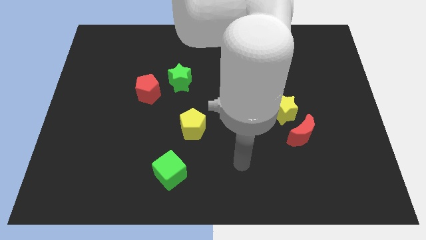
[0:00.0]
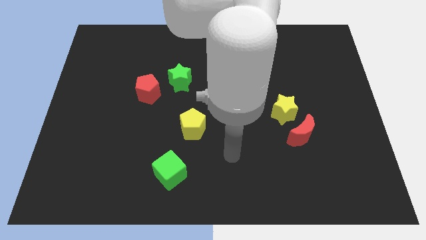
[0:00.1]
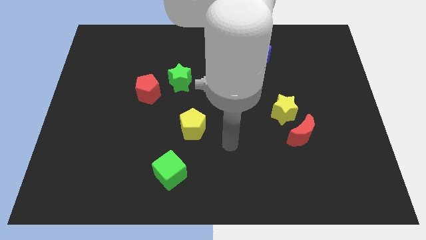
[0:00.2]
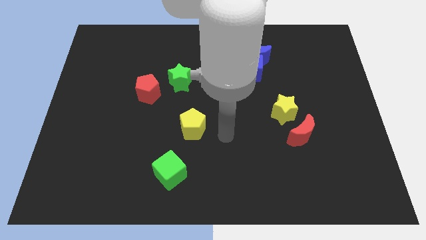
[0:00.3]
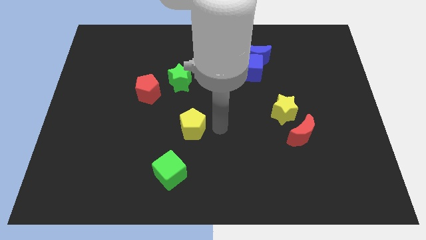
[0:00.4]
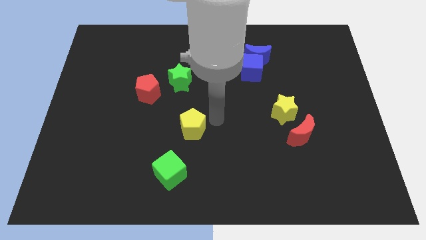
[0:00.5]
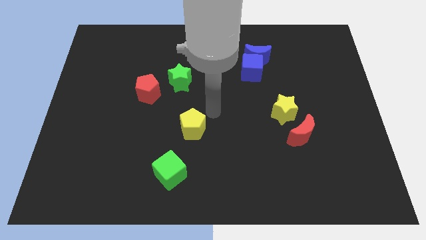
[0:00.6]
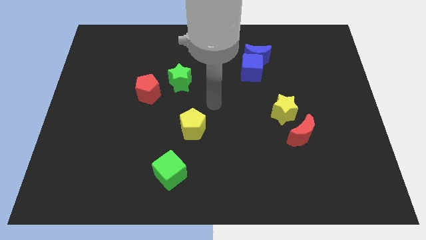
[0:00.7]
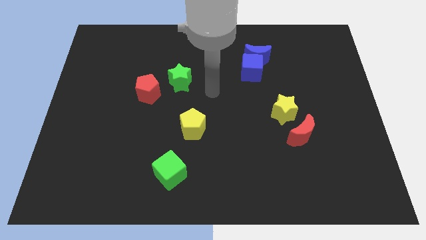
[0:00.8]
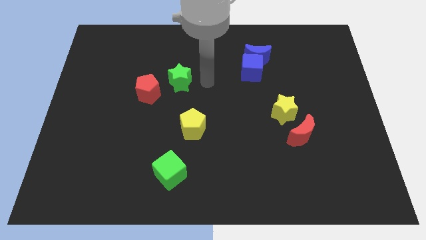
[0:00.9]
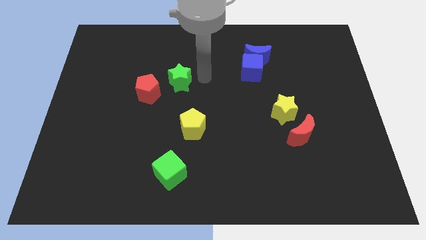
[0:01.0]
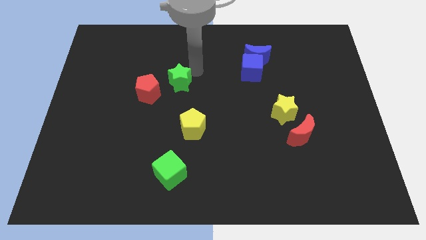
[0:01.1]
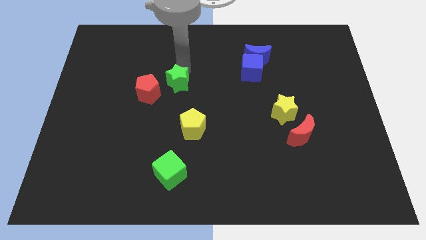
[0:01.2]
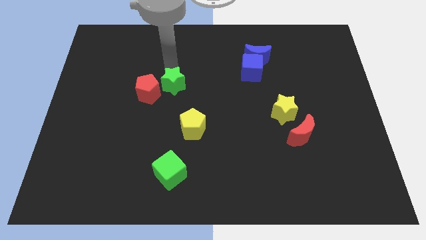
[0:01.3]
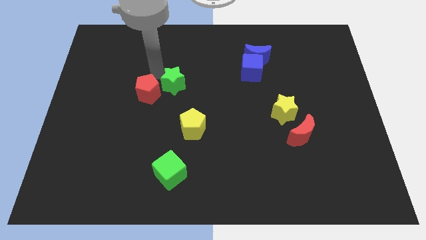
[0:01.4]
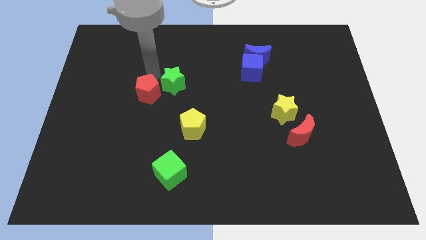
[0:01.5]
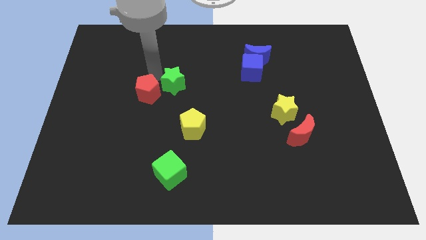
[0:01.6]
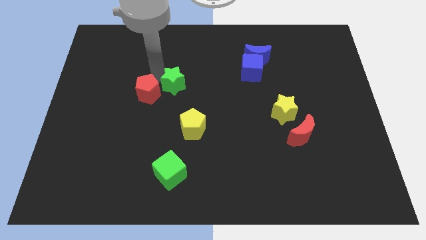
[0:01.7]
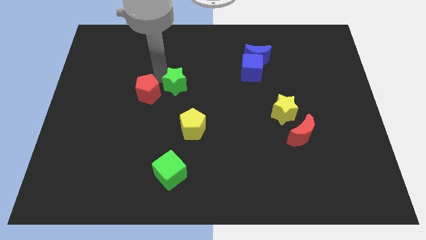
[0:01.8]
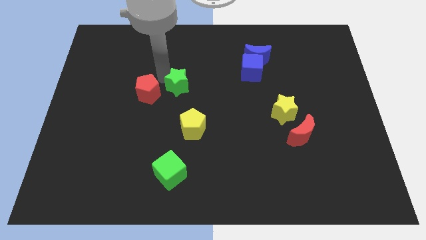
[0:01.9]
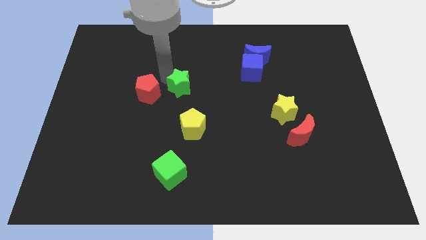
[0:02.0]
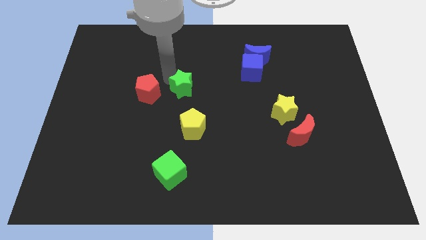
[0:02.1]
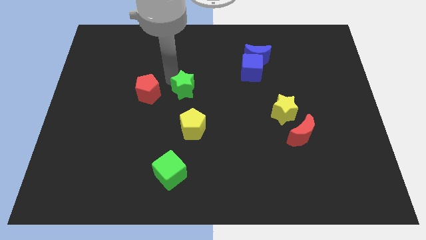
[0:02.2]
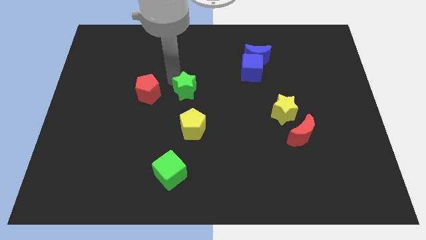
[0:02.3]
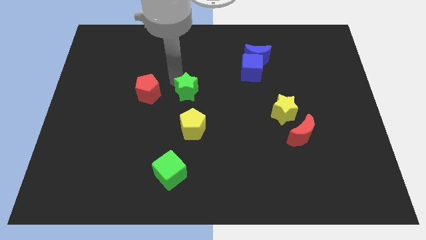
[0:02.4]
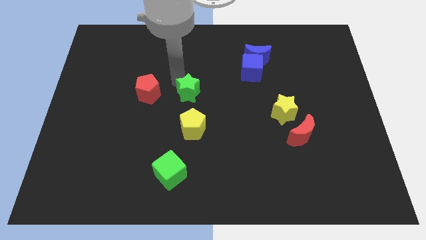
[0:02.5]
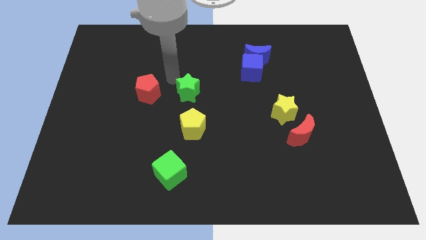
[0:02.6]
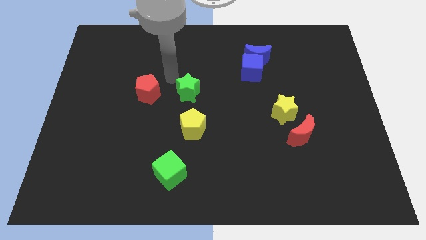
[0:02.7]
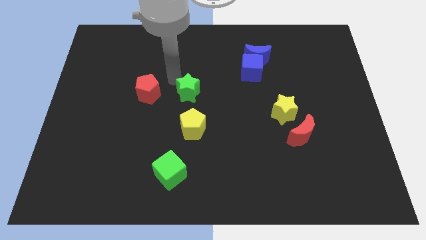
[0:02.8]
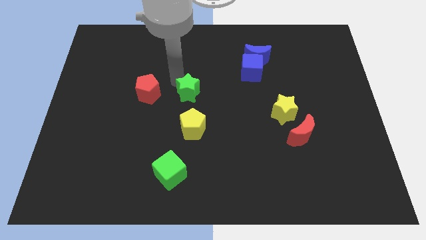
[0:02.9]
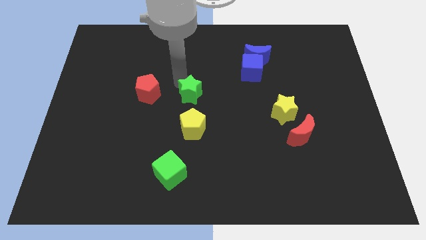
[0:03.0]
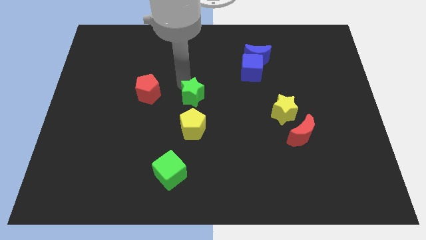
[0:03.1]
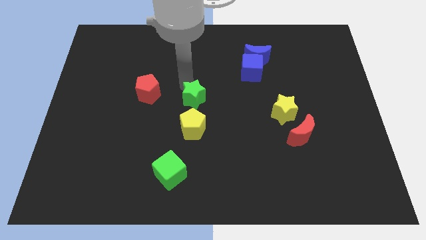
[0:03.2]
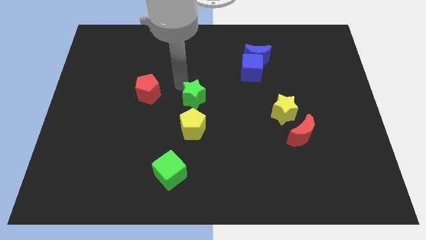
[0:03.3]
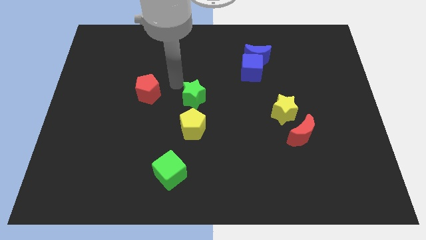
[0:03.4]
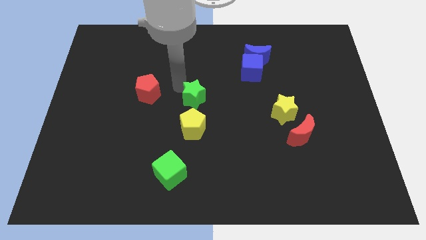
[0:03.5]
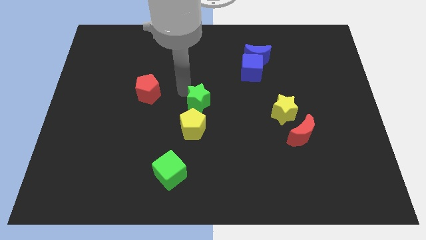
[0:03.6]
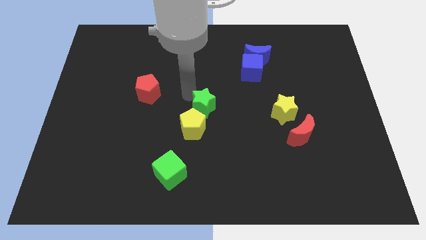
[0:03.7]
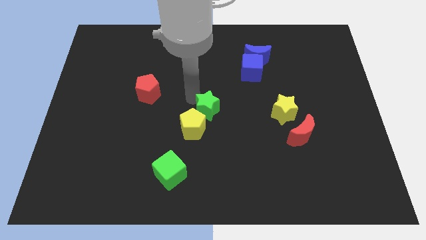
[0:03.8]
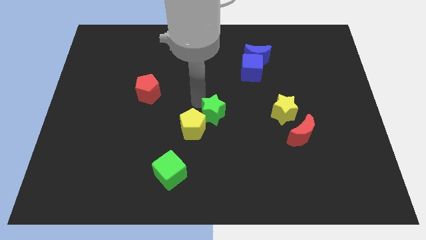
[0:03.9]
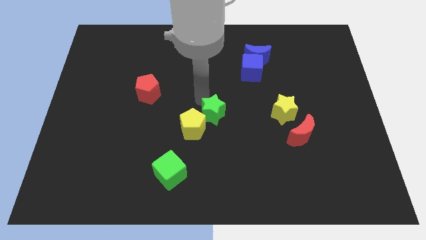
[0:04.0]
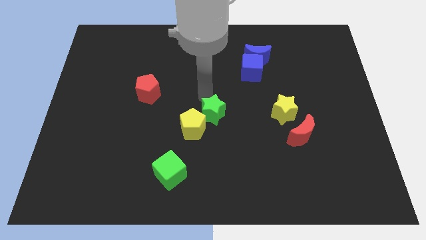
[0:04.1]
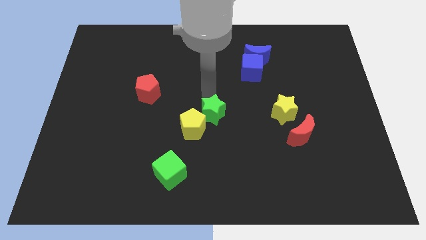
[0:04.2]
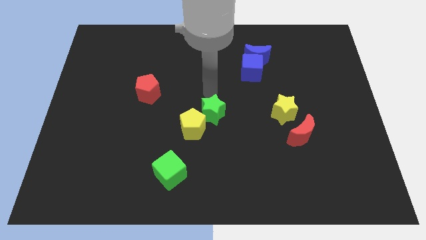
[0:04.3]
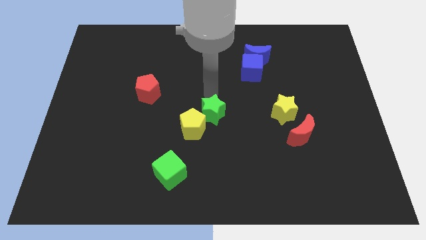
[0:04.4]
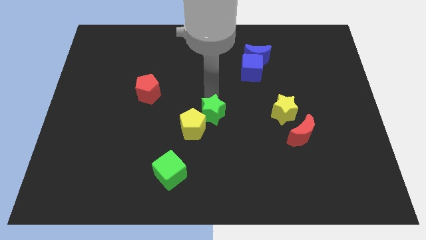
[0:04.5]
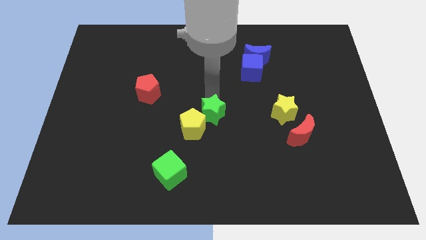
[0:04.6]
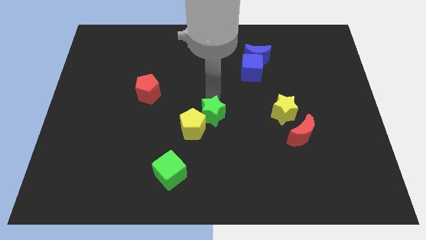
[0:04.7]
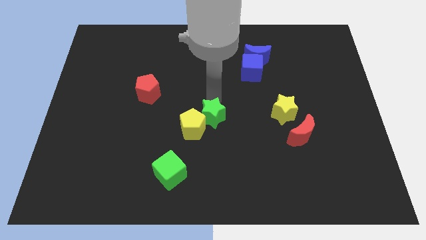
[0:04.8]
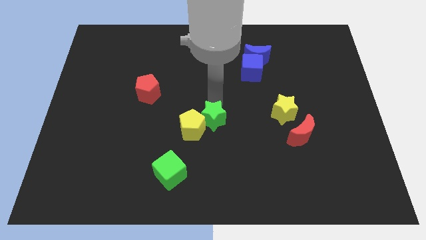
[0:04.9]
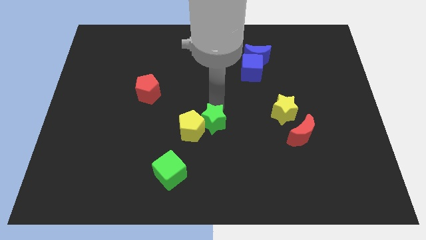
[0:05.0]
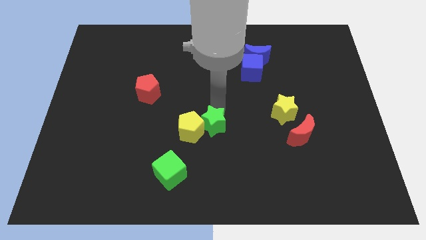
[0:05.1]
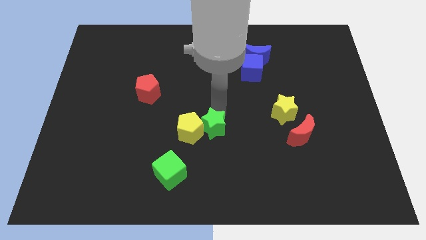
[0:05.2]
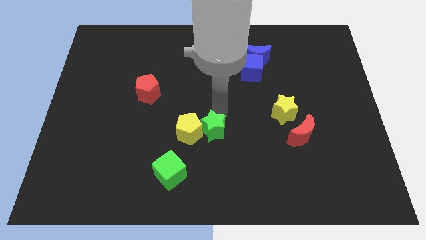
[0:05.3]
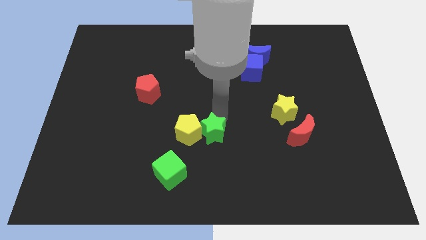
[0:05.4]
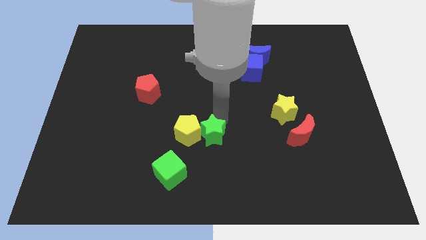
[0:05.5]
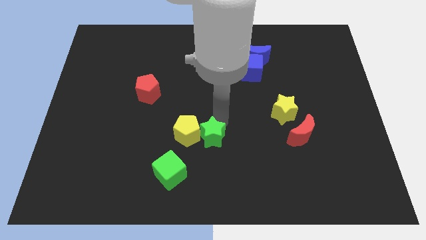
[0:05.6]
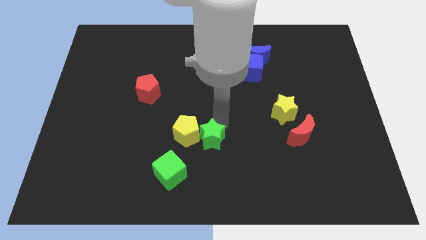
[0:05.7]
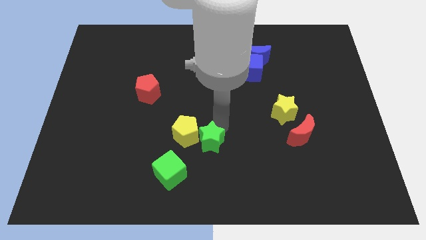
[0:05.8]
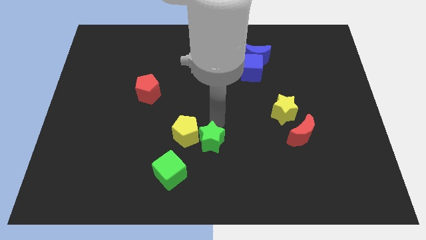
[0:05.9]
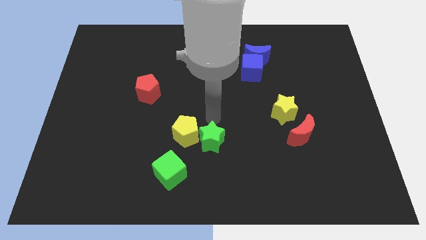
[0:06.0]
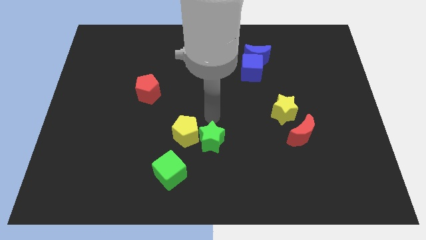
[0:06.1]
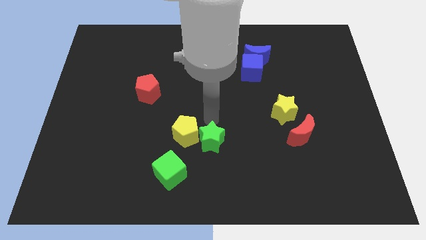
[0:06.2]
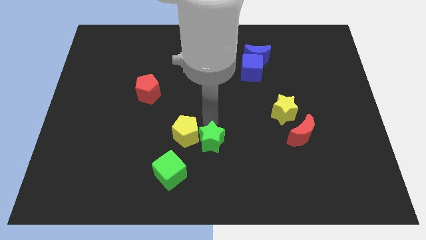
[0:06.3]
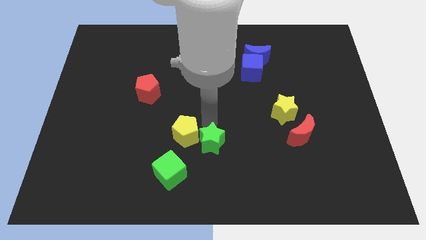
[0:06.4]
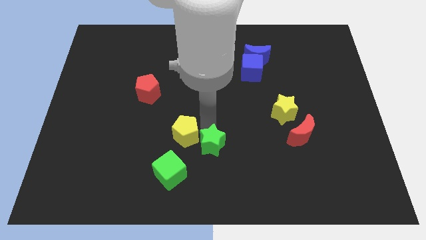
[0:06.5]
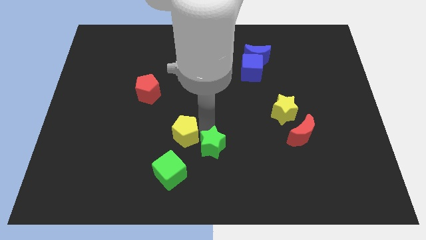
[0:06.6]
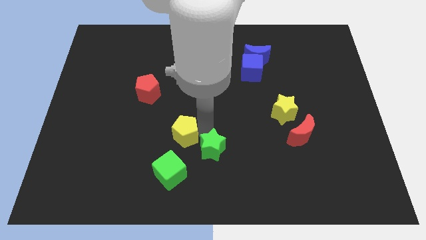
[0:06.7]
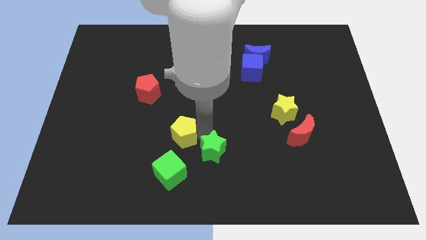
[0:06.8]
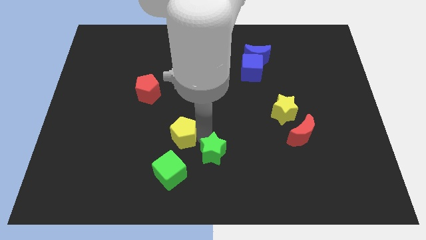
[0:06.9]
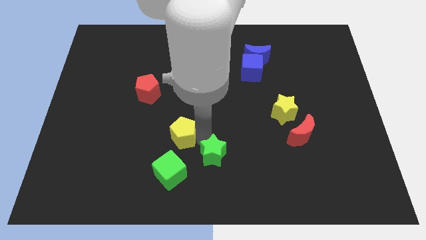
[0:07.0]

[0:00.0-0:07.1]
slide the green star to the bottom side
